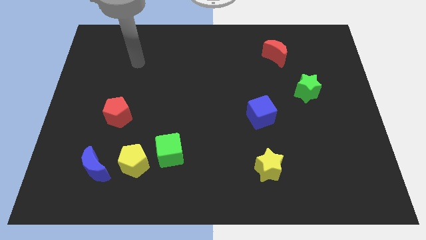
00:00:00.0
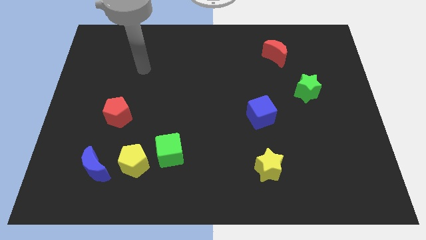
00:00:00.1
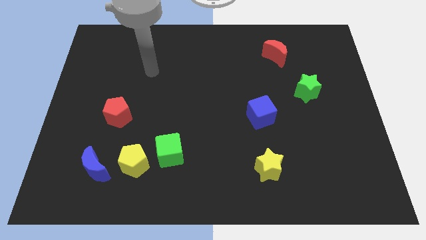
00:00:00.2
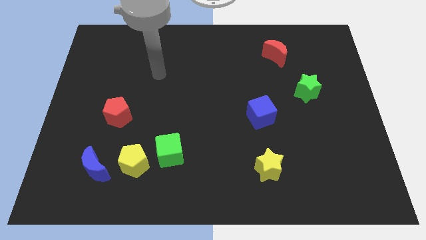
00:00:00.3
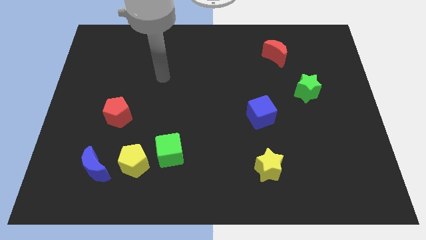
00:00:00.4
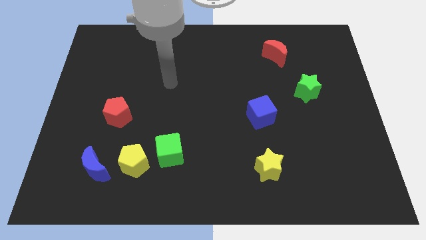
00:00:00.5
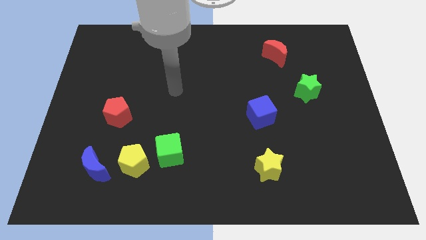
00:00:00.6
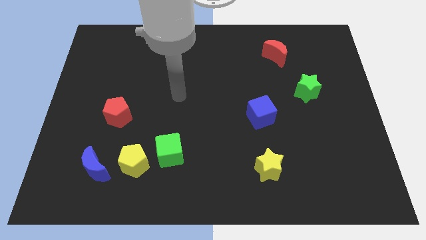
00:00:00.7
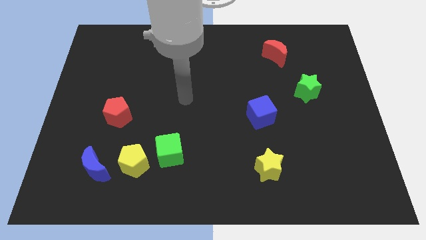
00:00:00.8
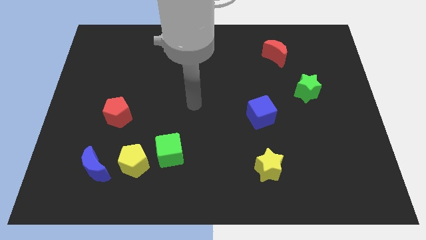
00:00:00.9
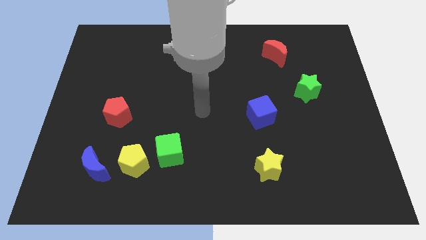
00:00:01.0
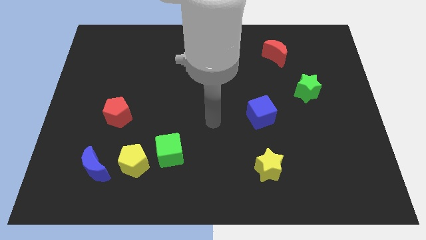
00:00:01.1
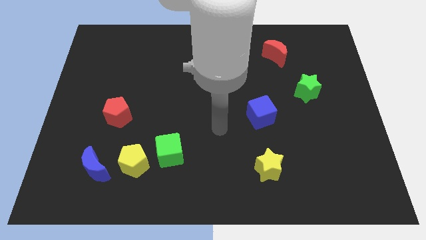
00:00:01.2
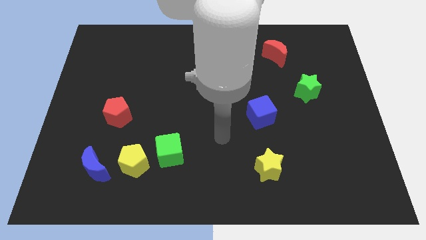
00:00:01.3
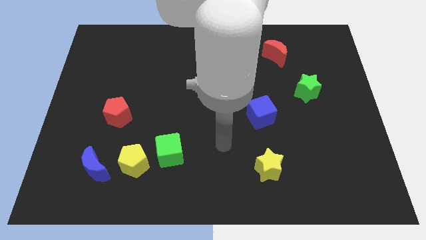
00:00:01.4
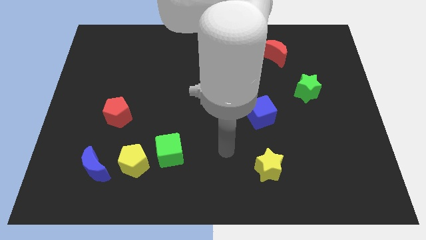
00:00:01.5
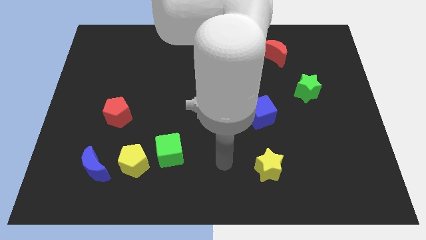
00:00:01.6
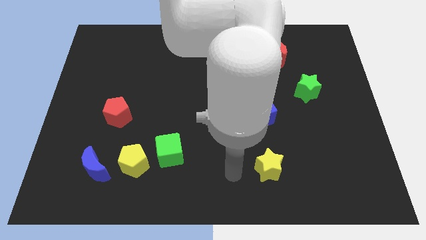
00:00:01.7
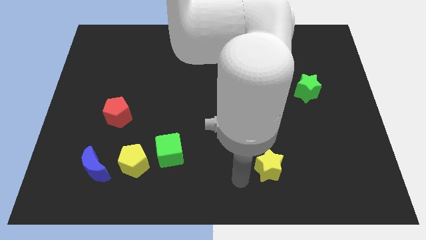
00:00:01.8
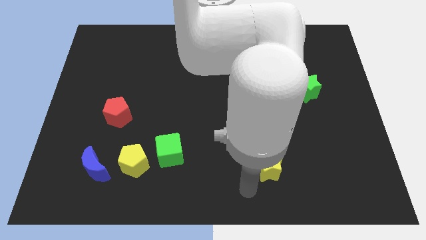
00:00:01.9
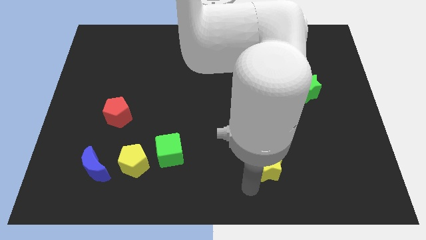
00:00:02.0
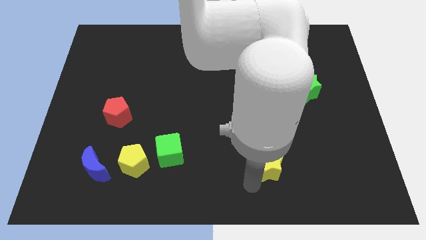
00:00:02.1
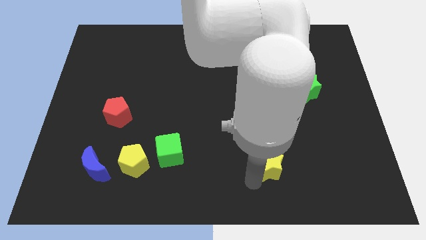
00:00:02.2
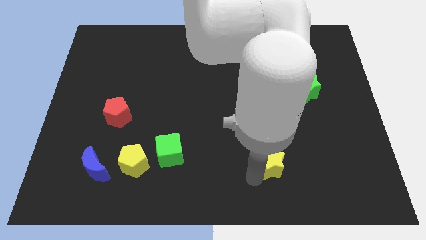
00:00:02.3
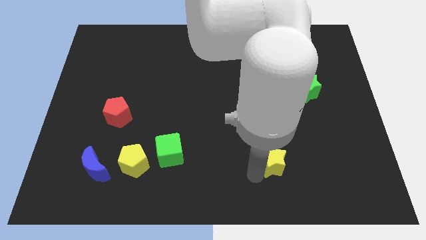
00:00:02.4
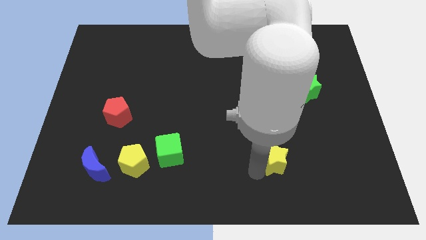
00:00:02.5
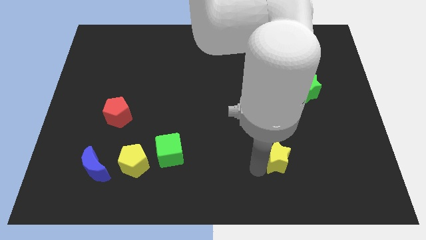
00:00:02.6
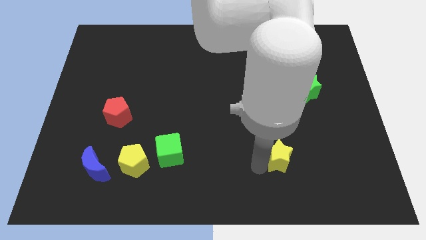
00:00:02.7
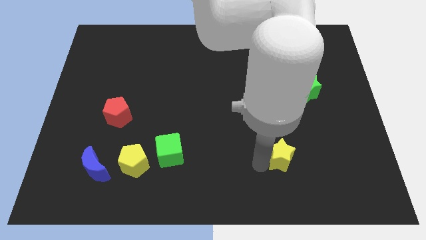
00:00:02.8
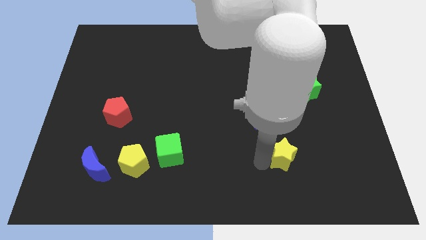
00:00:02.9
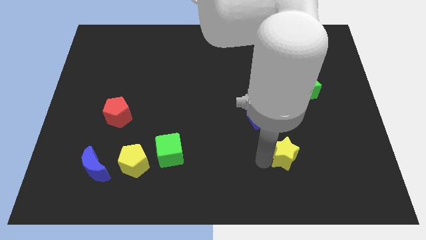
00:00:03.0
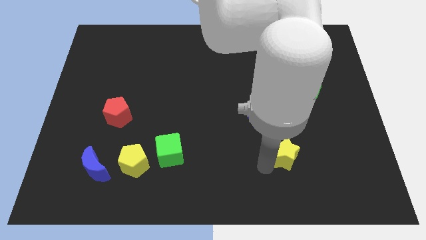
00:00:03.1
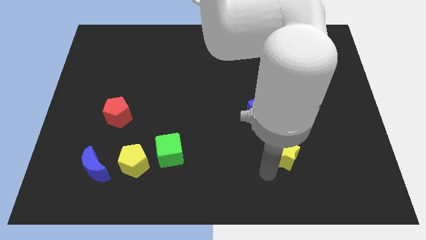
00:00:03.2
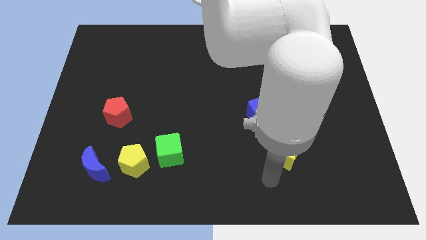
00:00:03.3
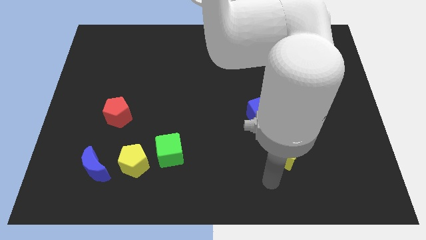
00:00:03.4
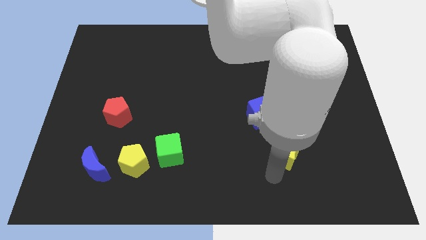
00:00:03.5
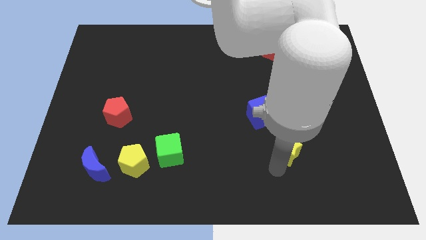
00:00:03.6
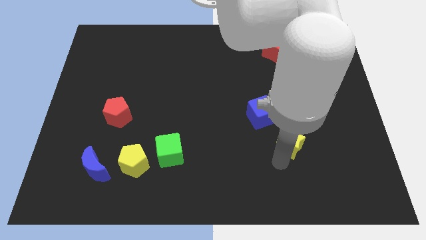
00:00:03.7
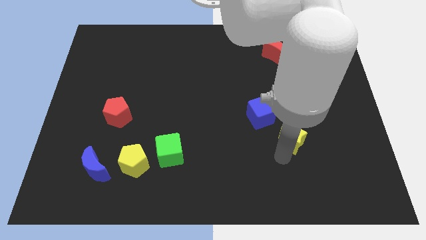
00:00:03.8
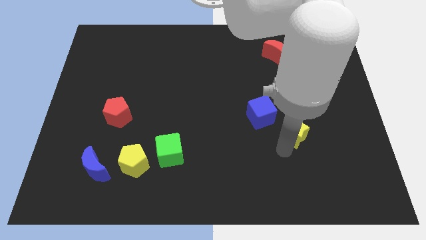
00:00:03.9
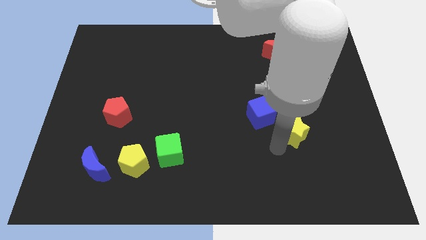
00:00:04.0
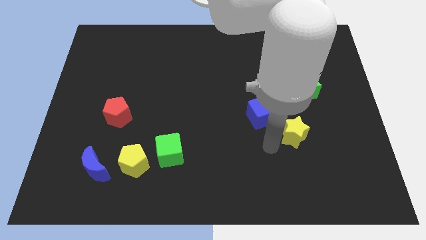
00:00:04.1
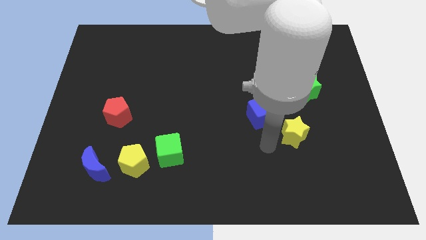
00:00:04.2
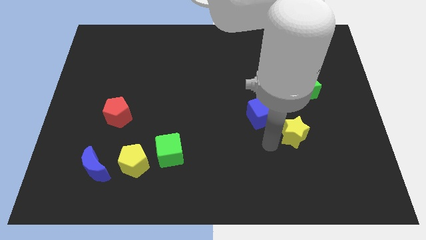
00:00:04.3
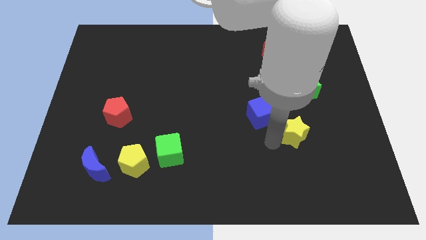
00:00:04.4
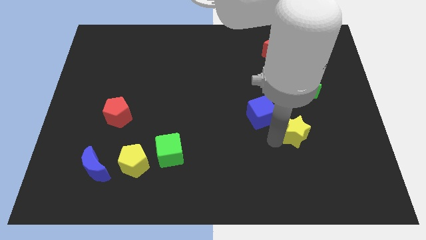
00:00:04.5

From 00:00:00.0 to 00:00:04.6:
put the yellow star to the bottom side of the green star

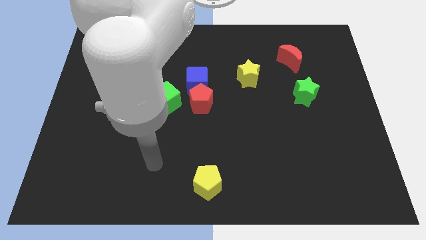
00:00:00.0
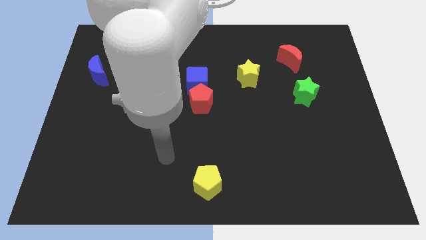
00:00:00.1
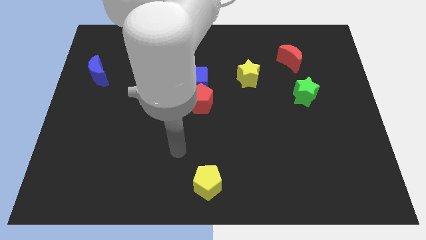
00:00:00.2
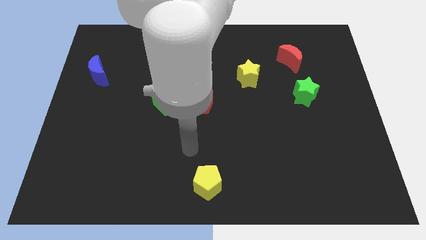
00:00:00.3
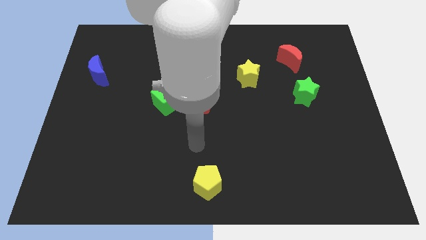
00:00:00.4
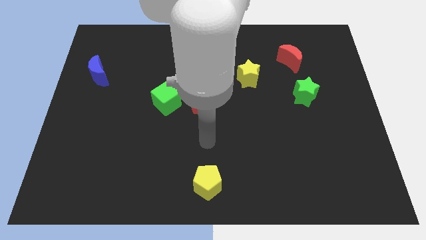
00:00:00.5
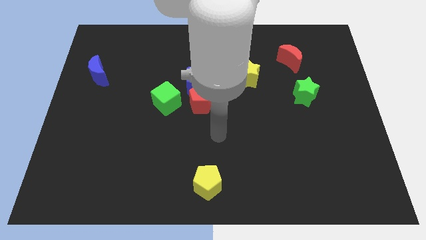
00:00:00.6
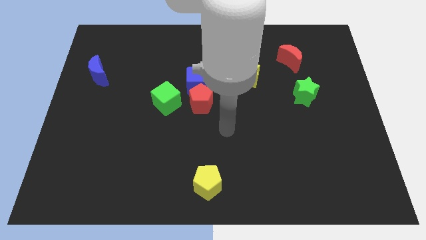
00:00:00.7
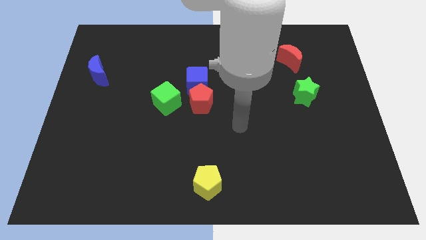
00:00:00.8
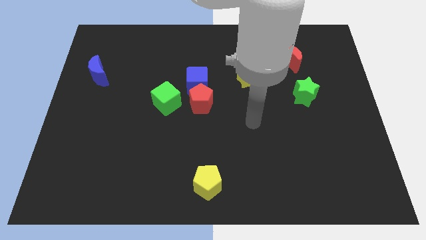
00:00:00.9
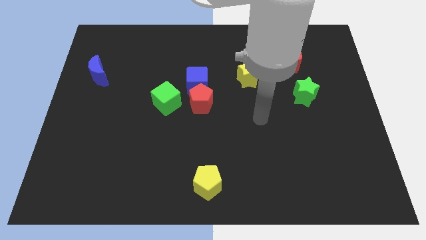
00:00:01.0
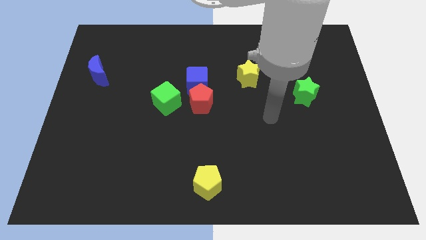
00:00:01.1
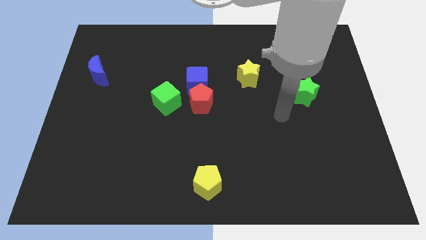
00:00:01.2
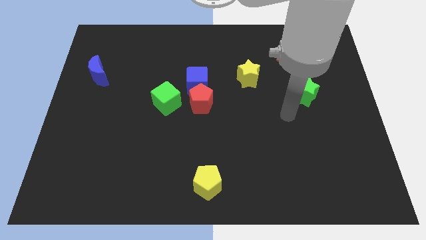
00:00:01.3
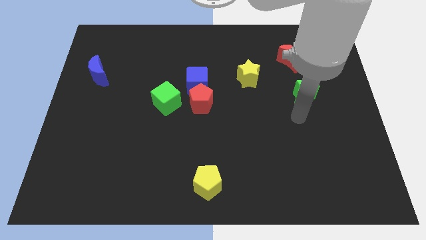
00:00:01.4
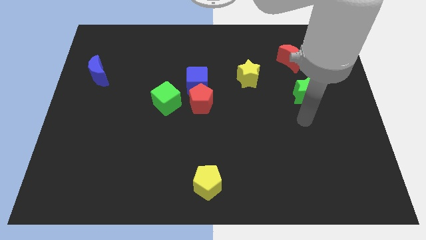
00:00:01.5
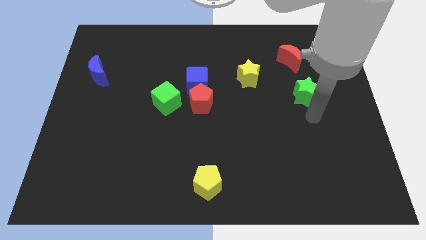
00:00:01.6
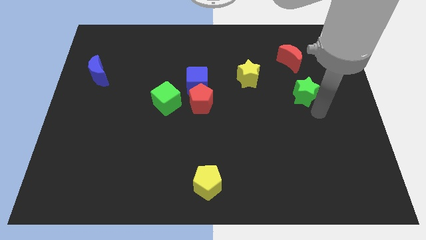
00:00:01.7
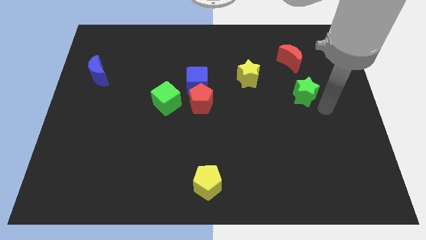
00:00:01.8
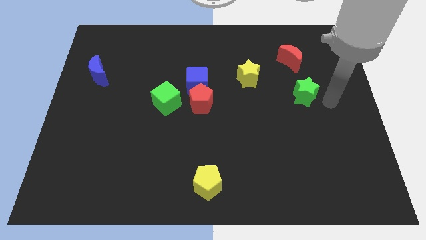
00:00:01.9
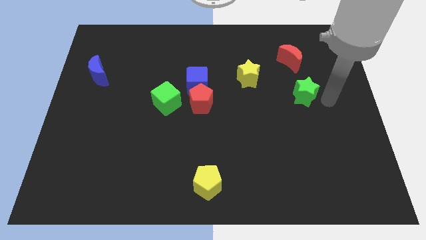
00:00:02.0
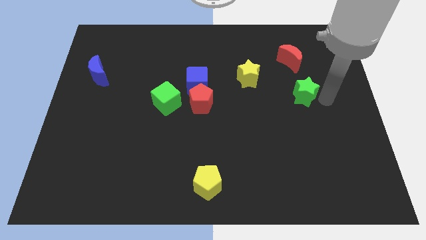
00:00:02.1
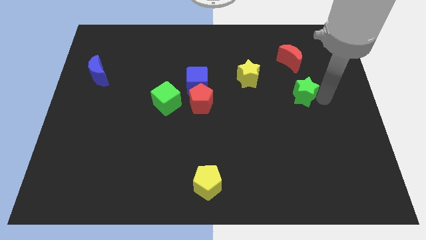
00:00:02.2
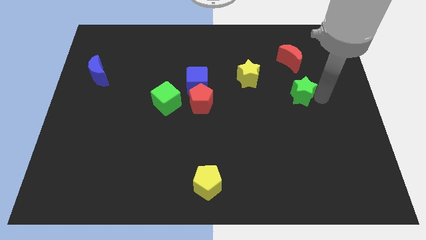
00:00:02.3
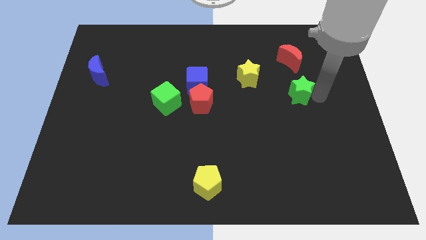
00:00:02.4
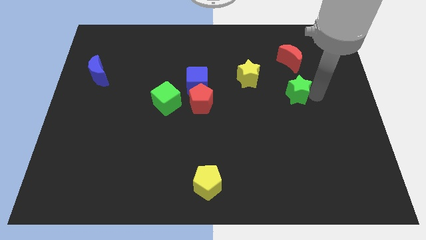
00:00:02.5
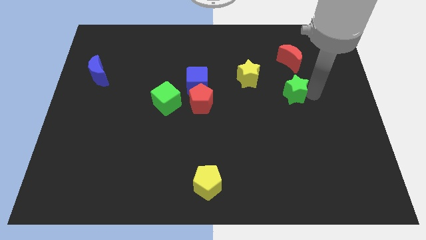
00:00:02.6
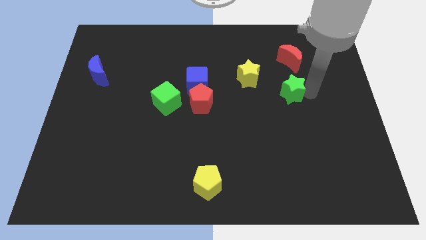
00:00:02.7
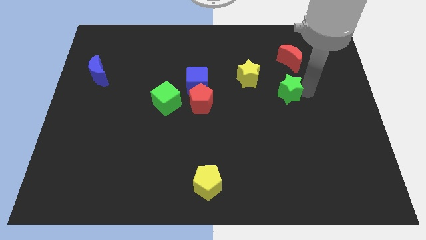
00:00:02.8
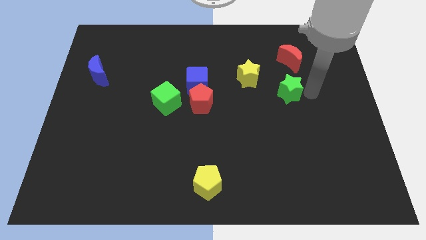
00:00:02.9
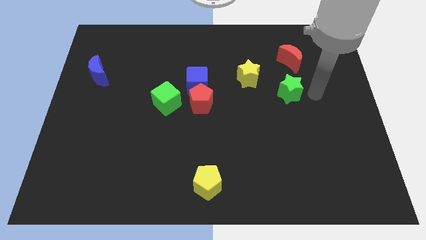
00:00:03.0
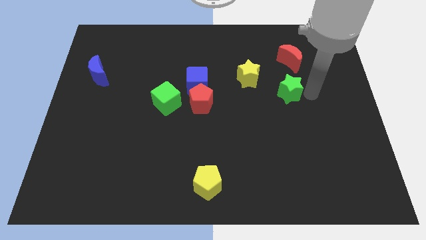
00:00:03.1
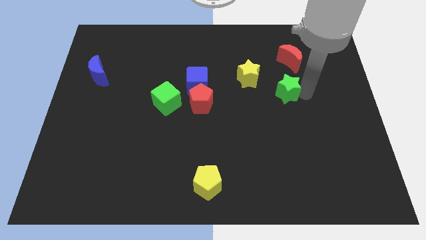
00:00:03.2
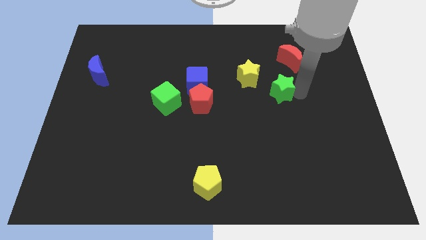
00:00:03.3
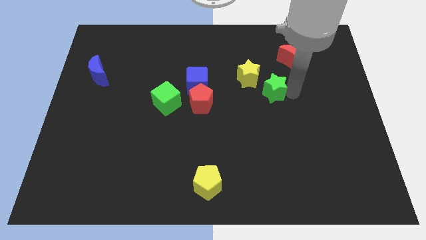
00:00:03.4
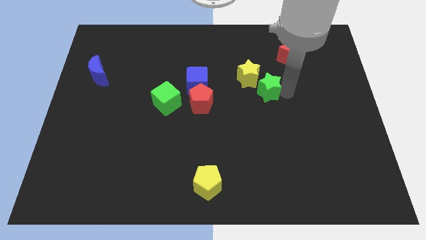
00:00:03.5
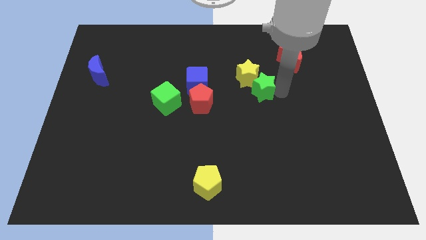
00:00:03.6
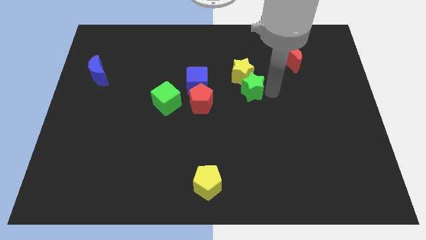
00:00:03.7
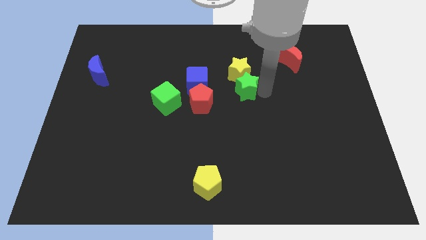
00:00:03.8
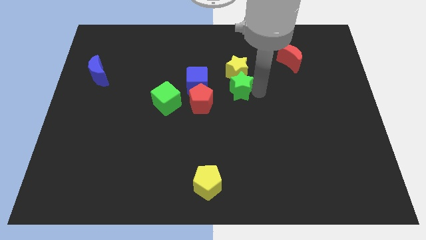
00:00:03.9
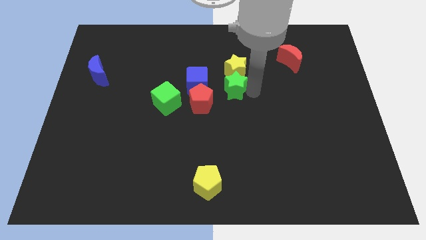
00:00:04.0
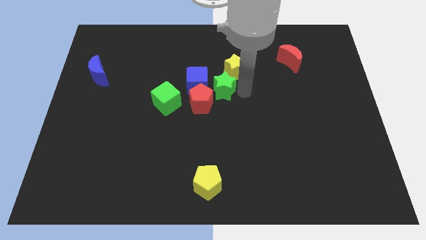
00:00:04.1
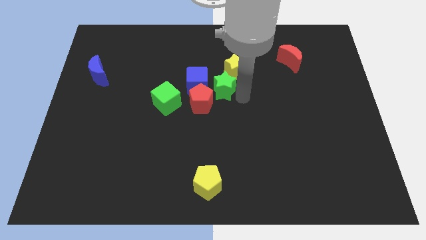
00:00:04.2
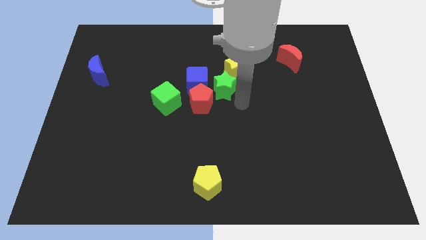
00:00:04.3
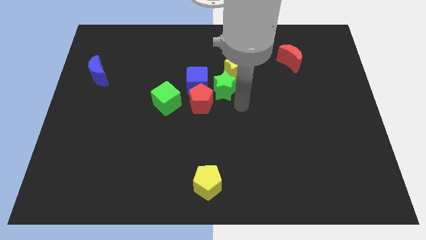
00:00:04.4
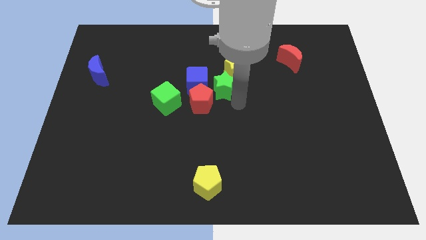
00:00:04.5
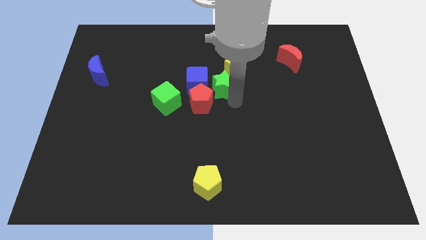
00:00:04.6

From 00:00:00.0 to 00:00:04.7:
move the green star to the top side of the red pentagon
